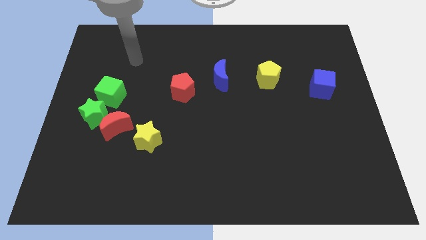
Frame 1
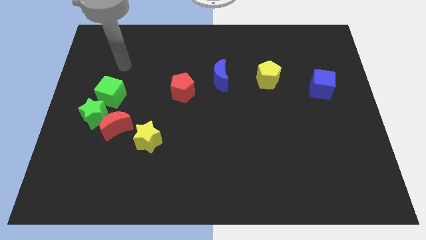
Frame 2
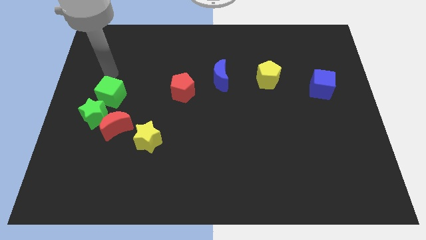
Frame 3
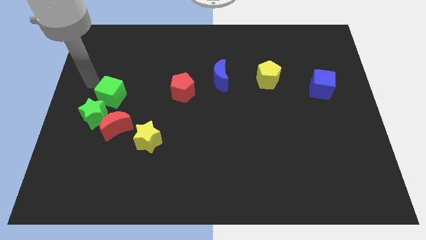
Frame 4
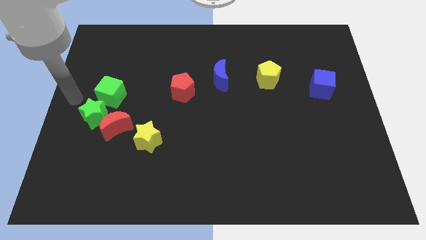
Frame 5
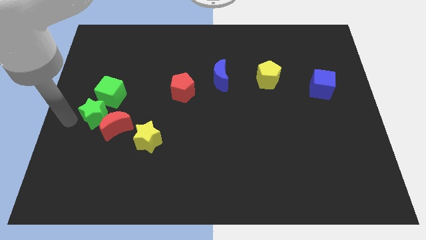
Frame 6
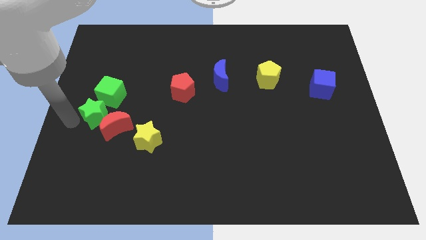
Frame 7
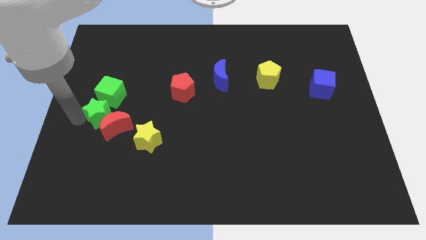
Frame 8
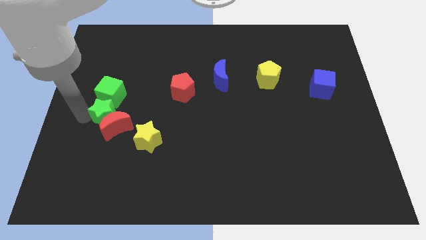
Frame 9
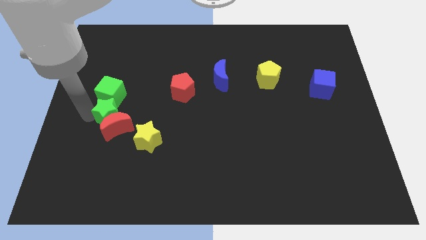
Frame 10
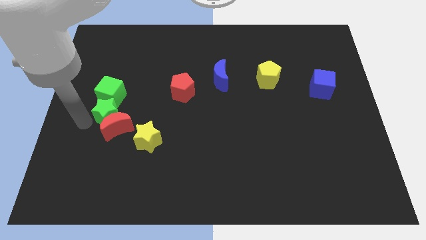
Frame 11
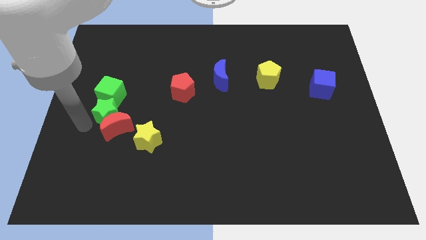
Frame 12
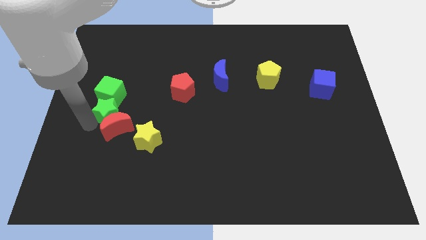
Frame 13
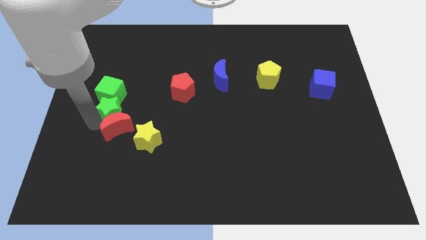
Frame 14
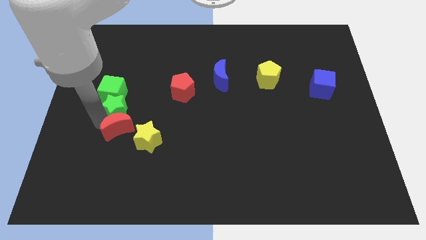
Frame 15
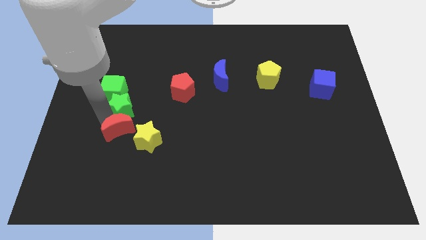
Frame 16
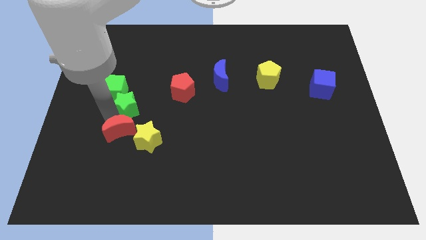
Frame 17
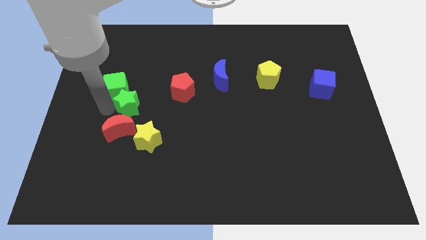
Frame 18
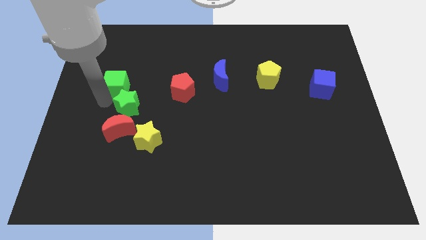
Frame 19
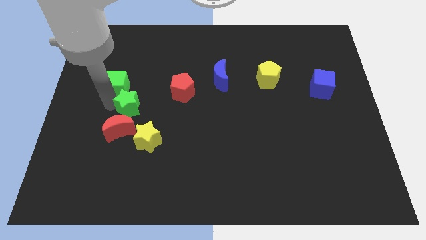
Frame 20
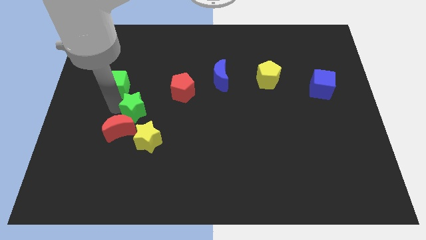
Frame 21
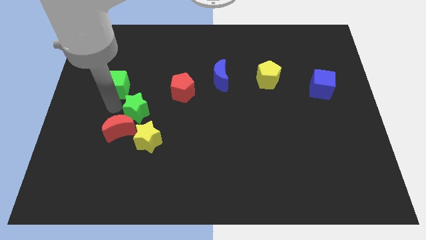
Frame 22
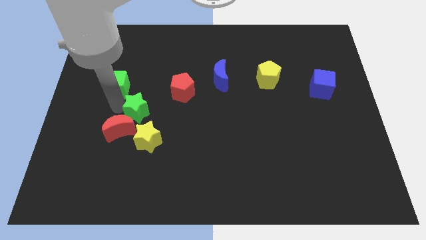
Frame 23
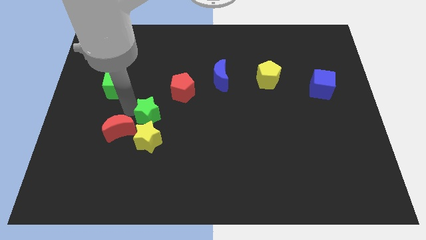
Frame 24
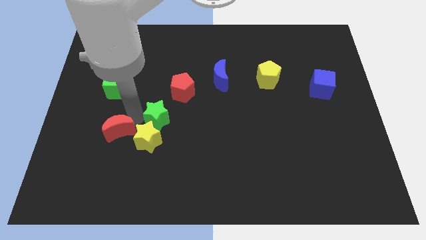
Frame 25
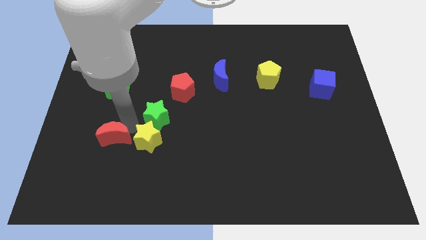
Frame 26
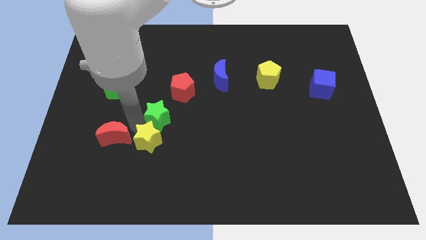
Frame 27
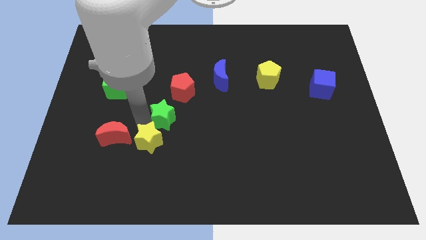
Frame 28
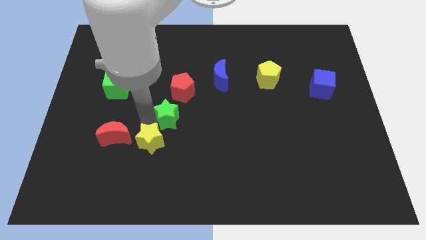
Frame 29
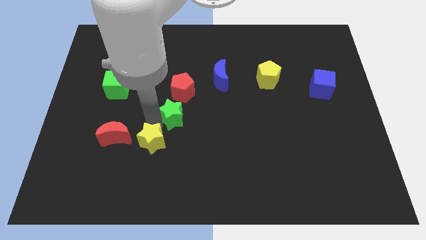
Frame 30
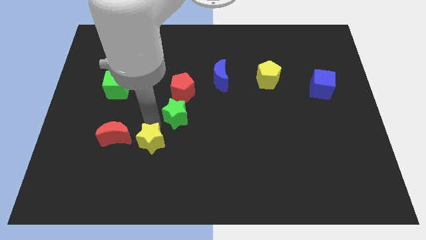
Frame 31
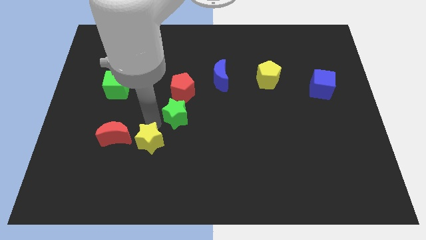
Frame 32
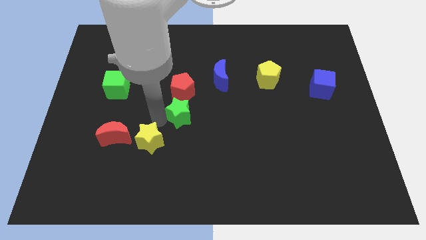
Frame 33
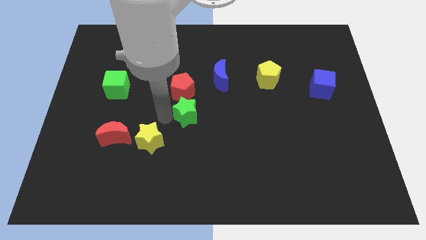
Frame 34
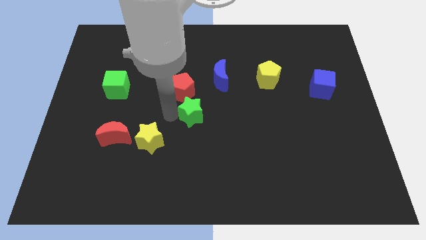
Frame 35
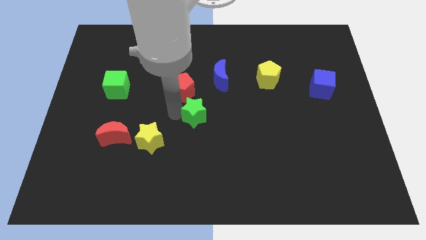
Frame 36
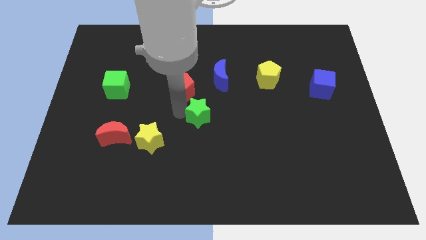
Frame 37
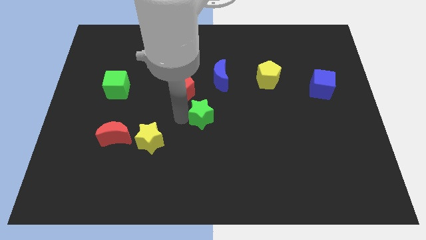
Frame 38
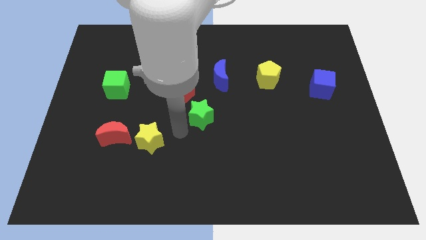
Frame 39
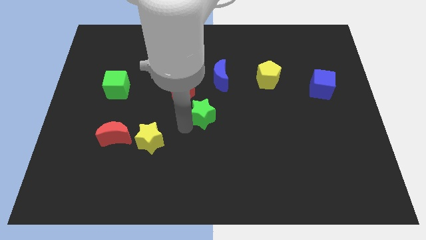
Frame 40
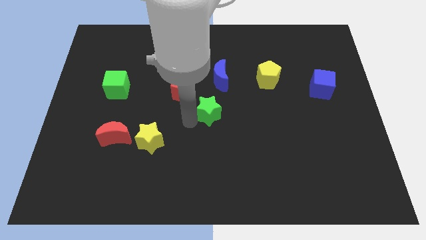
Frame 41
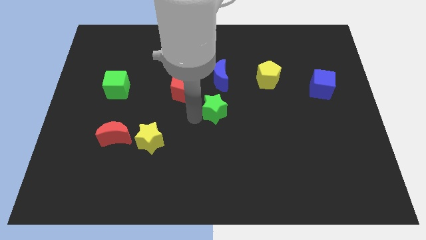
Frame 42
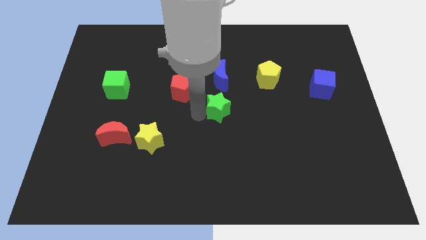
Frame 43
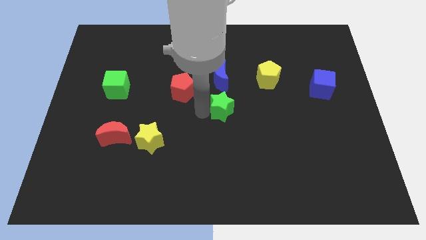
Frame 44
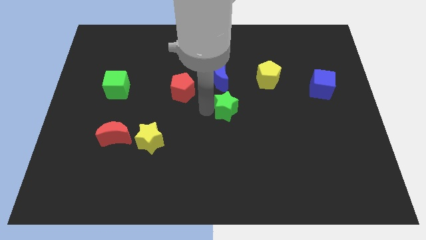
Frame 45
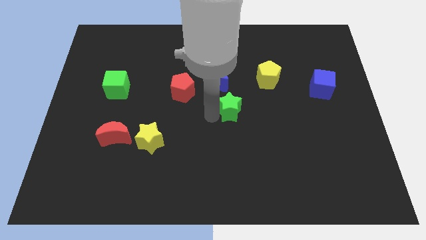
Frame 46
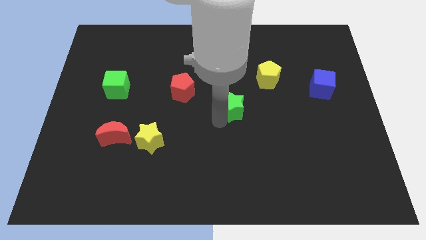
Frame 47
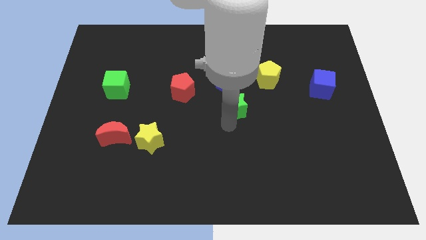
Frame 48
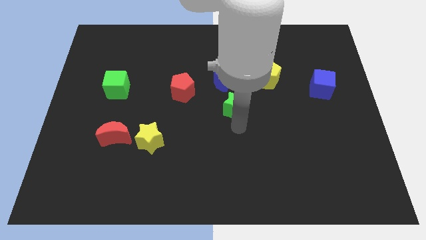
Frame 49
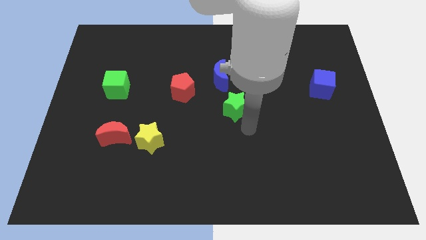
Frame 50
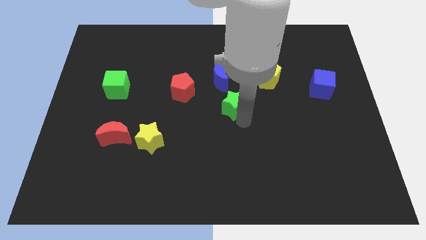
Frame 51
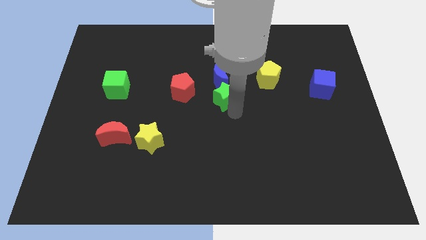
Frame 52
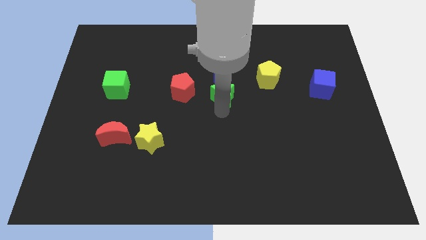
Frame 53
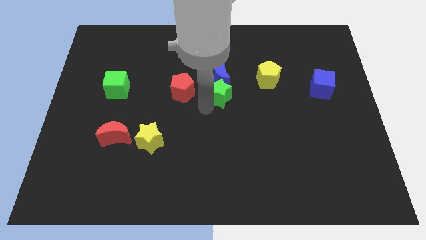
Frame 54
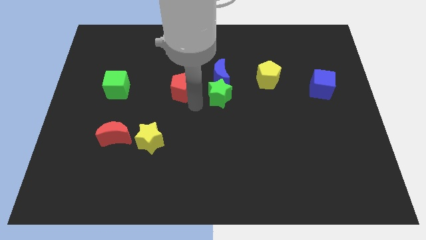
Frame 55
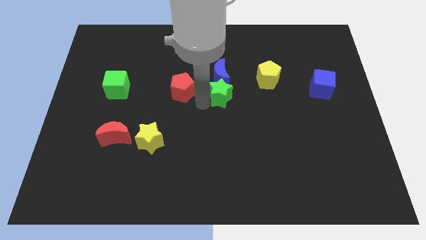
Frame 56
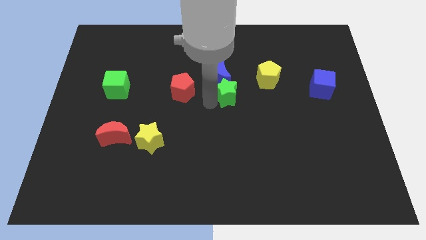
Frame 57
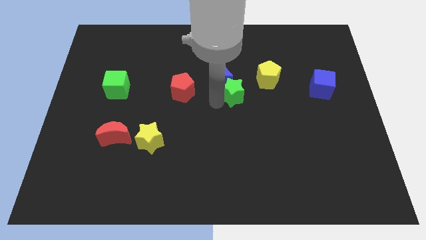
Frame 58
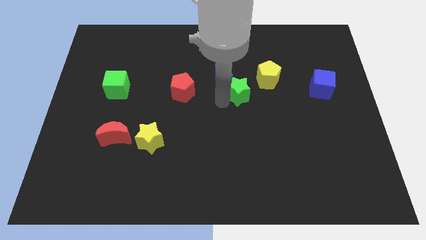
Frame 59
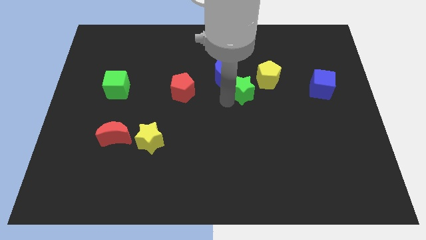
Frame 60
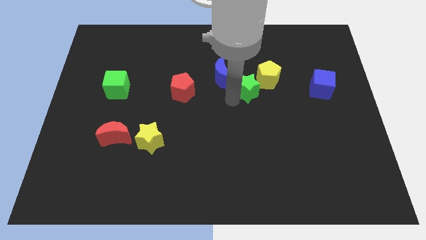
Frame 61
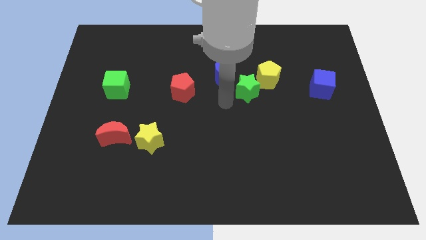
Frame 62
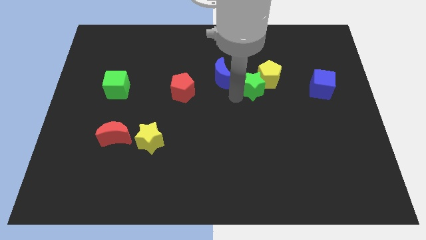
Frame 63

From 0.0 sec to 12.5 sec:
slide the green star towards the yellow pentagon

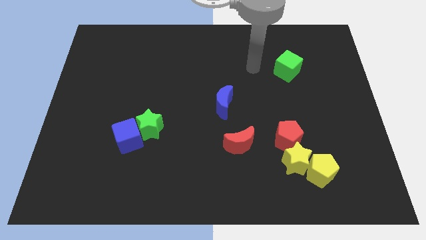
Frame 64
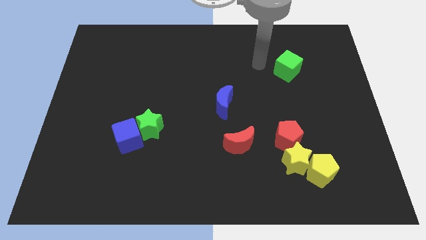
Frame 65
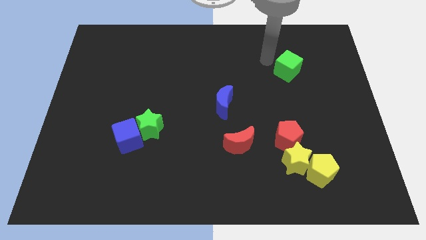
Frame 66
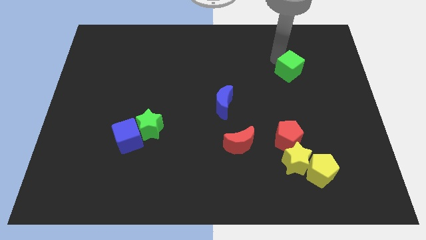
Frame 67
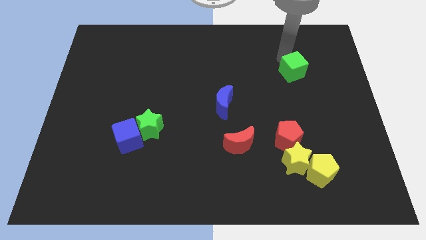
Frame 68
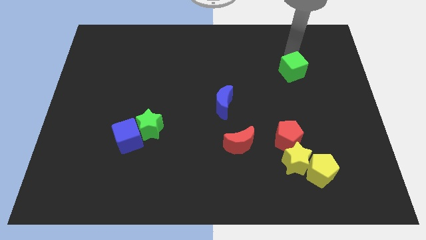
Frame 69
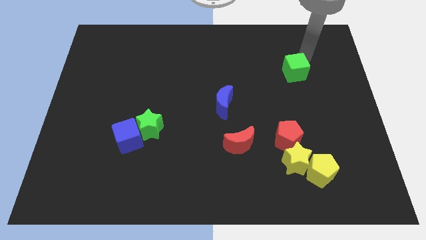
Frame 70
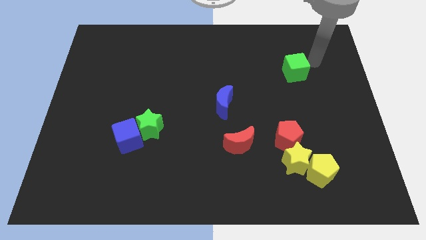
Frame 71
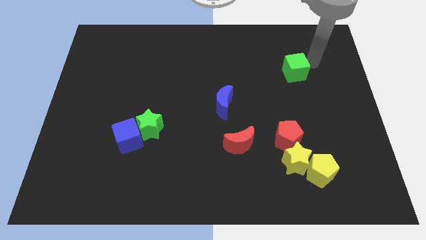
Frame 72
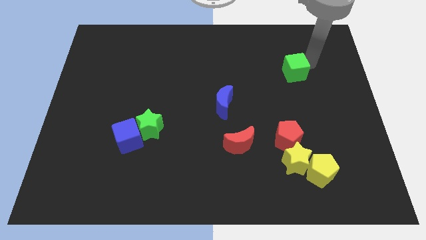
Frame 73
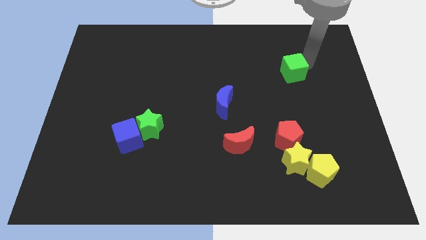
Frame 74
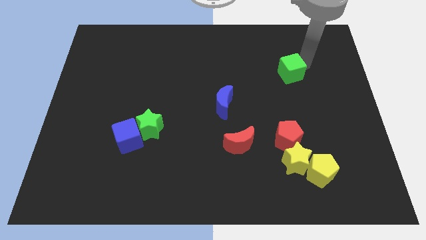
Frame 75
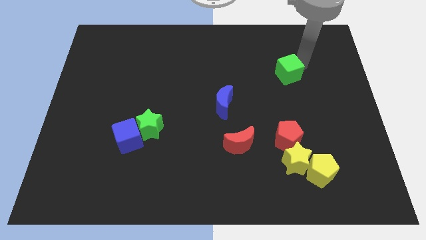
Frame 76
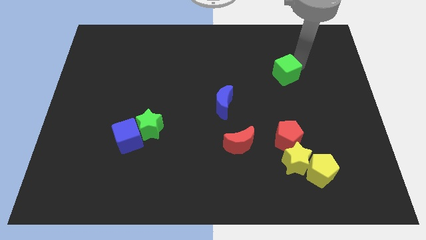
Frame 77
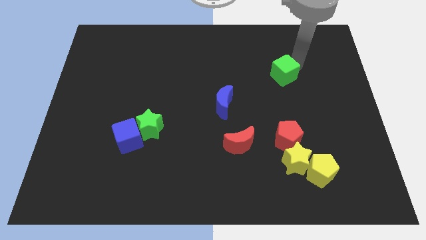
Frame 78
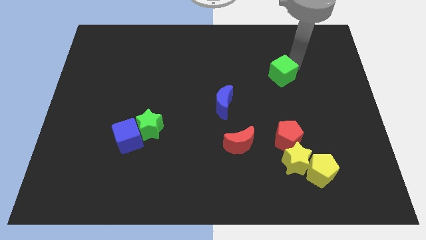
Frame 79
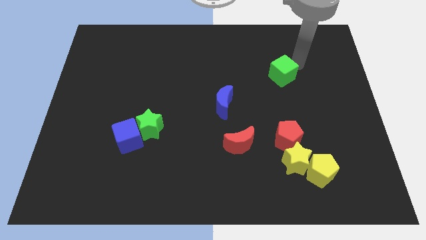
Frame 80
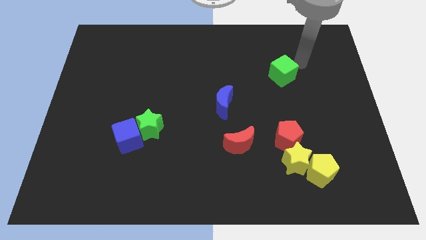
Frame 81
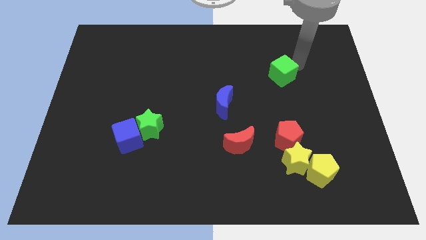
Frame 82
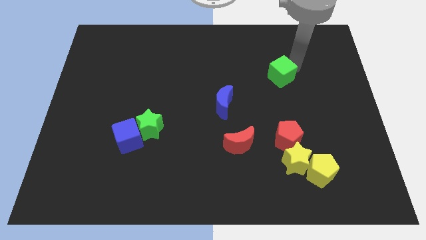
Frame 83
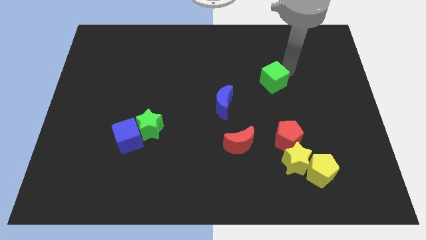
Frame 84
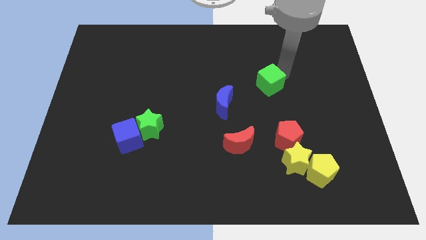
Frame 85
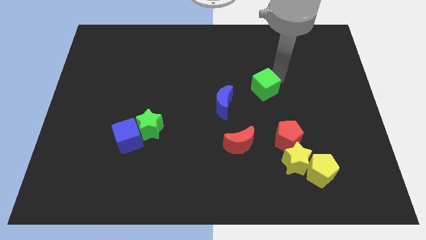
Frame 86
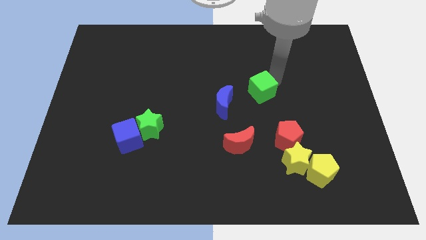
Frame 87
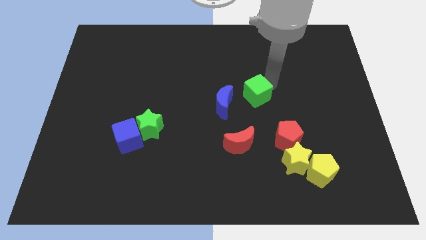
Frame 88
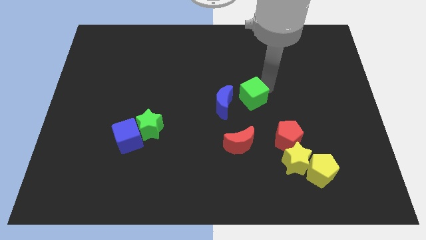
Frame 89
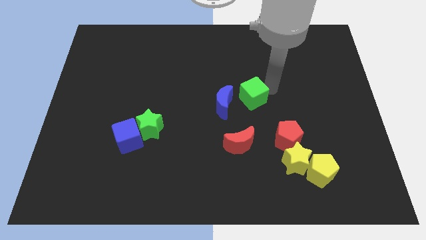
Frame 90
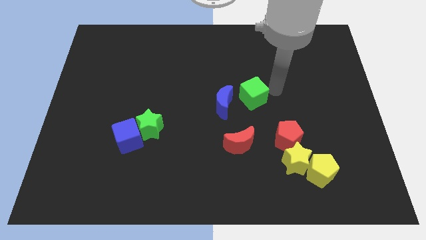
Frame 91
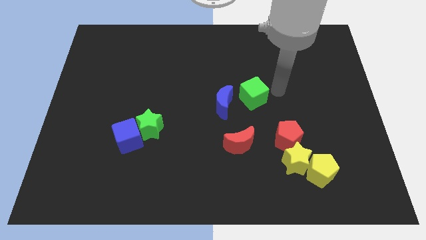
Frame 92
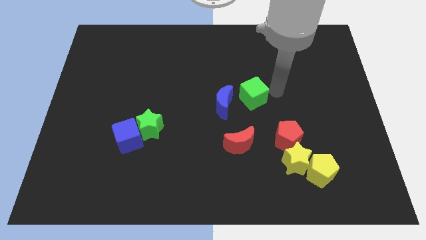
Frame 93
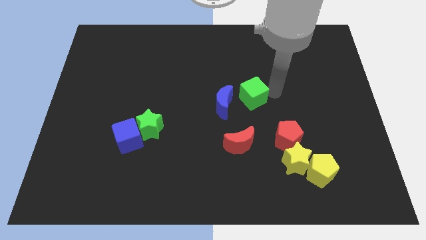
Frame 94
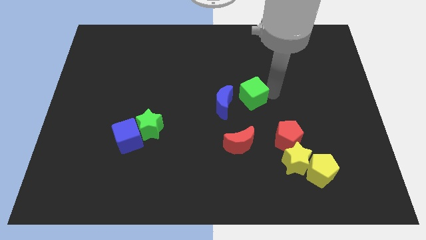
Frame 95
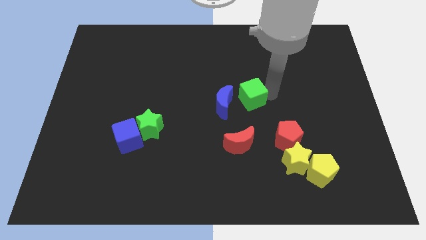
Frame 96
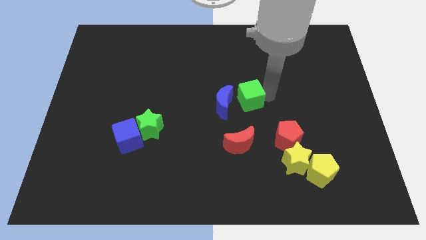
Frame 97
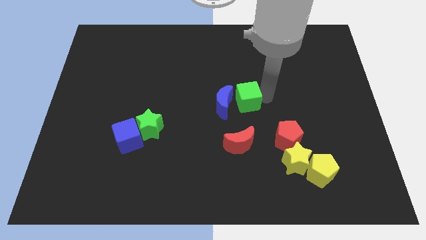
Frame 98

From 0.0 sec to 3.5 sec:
push the green cube towards the blue moon
